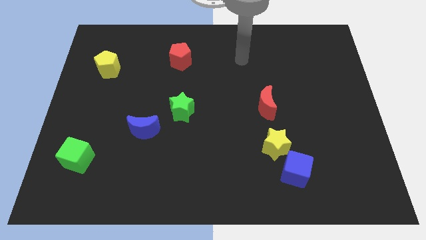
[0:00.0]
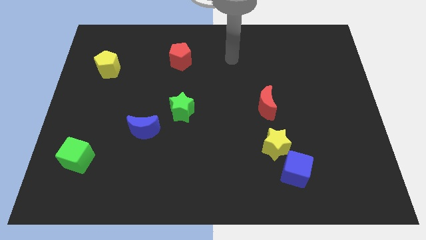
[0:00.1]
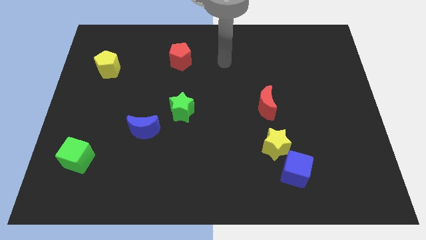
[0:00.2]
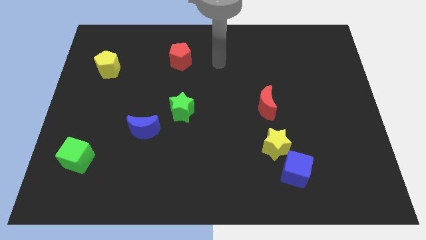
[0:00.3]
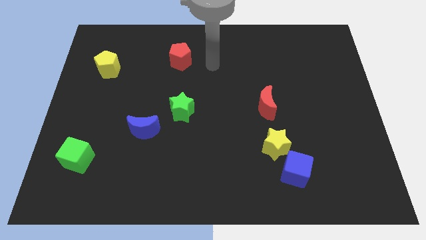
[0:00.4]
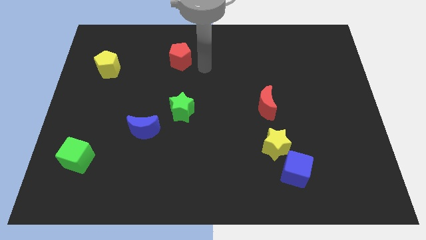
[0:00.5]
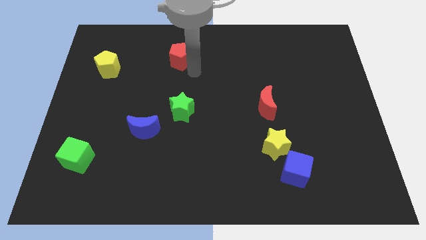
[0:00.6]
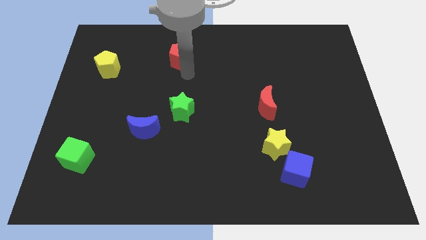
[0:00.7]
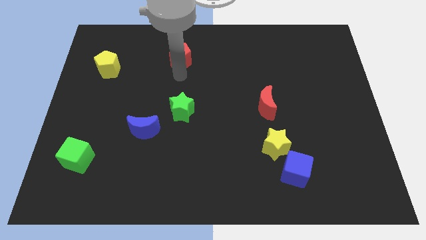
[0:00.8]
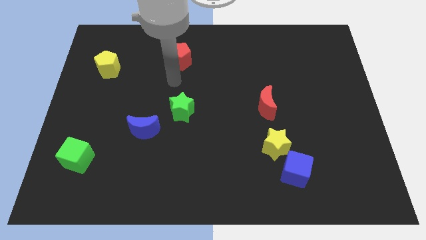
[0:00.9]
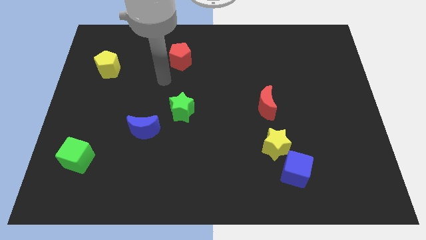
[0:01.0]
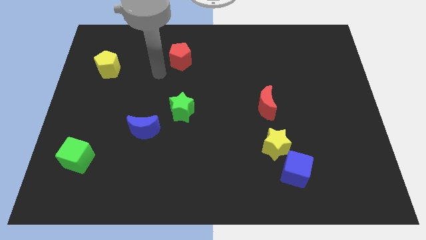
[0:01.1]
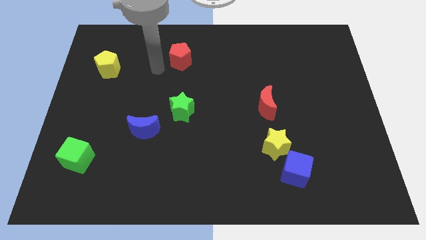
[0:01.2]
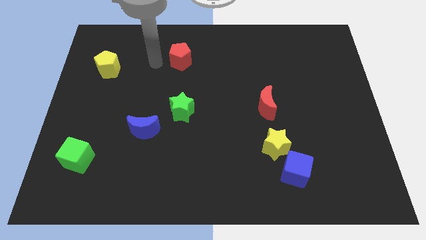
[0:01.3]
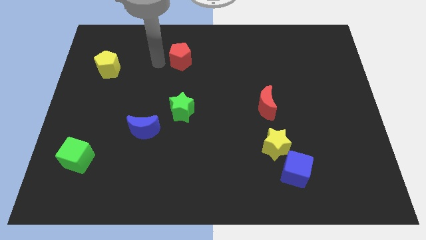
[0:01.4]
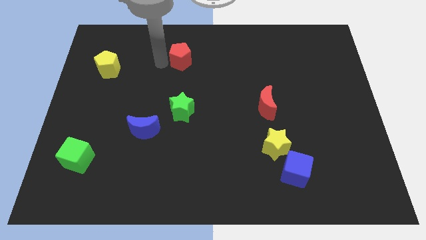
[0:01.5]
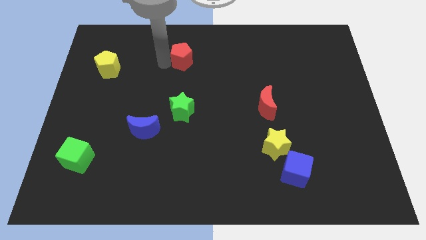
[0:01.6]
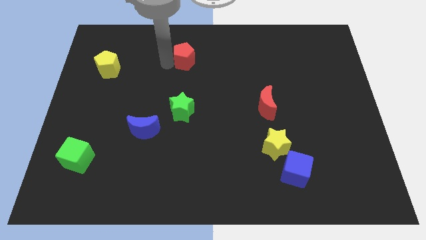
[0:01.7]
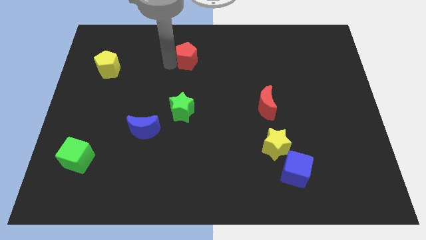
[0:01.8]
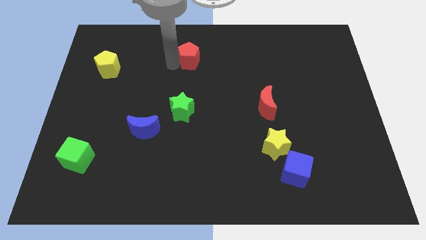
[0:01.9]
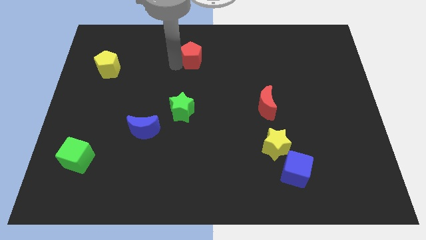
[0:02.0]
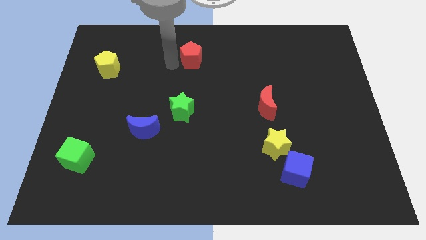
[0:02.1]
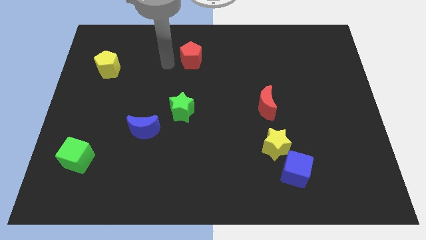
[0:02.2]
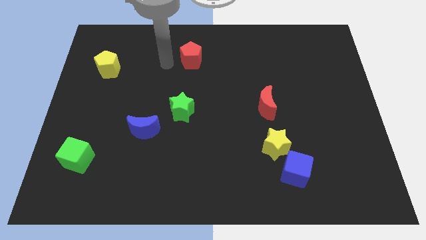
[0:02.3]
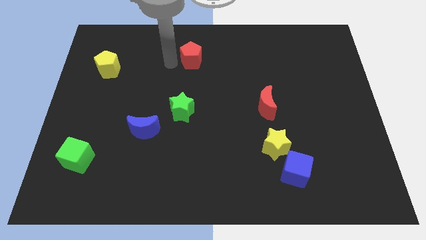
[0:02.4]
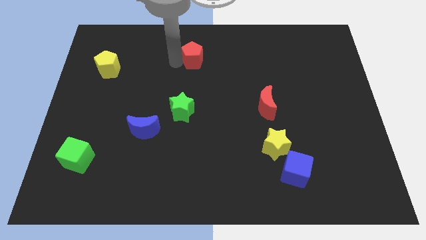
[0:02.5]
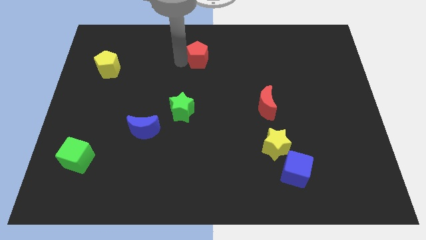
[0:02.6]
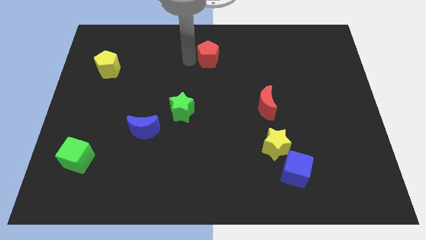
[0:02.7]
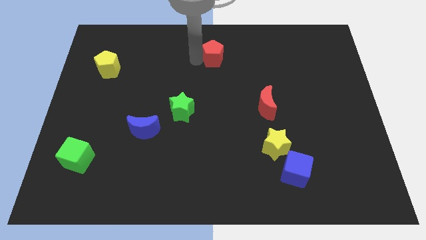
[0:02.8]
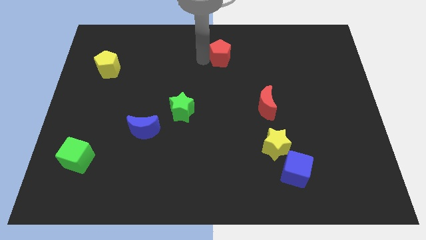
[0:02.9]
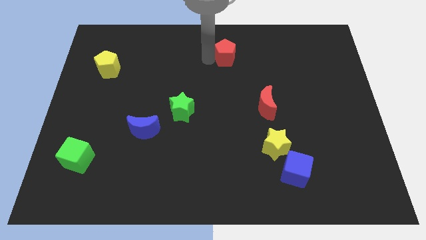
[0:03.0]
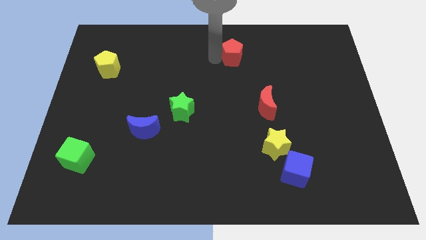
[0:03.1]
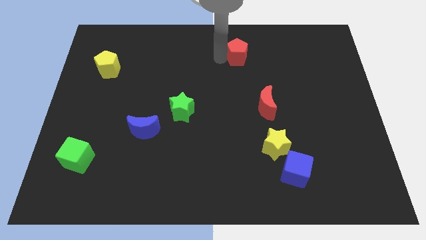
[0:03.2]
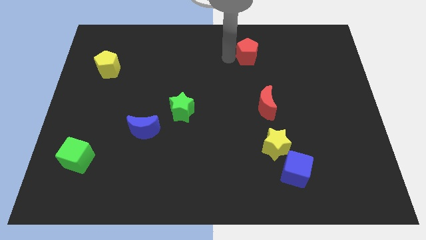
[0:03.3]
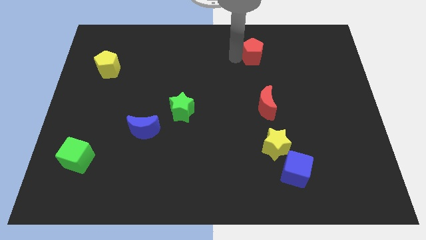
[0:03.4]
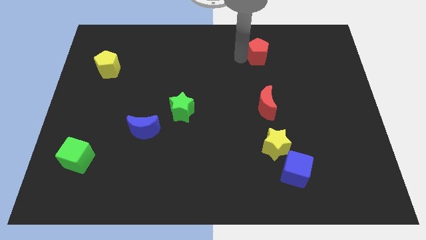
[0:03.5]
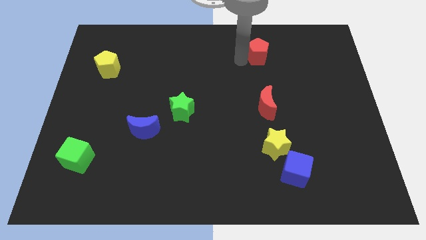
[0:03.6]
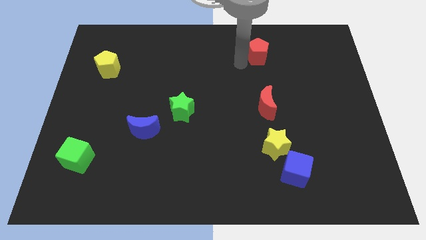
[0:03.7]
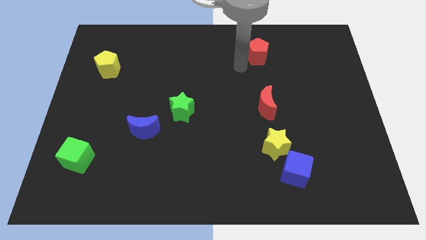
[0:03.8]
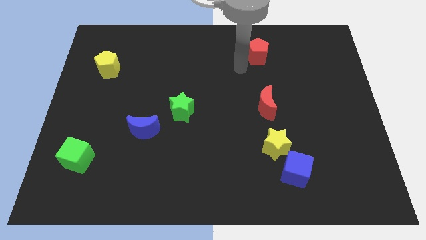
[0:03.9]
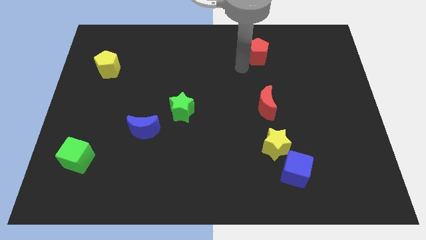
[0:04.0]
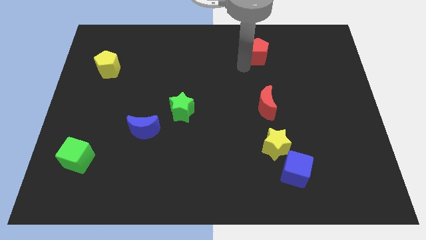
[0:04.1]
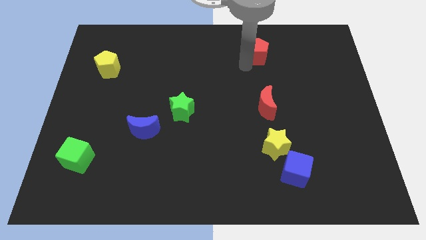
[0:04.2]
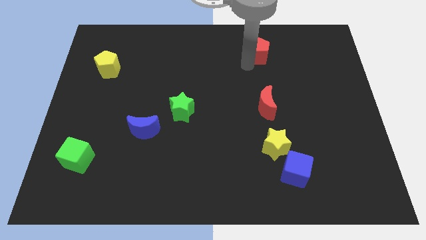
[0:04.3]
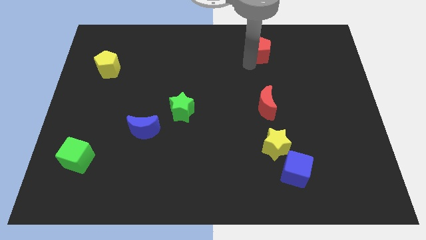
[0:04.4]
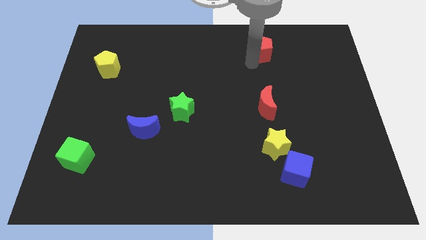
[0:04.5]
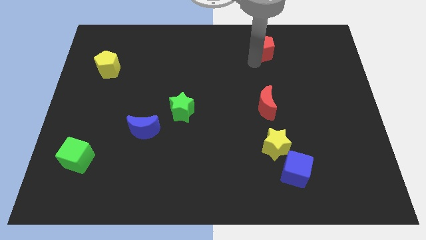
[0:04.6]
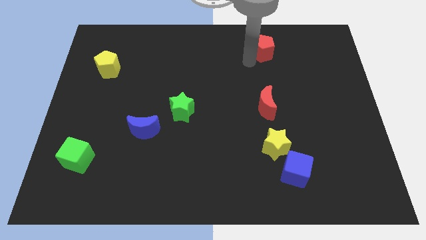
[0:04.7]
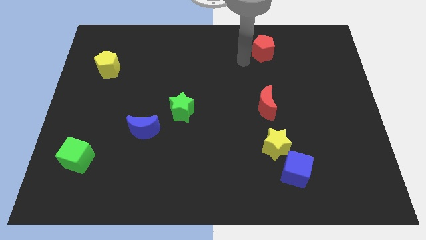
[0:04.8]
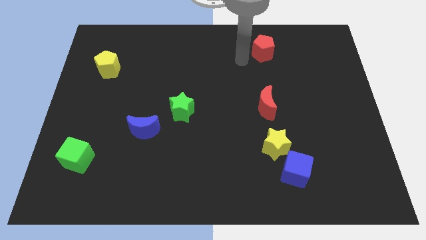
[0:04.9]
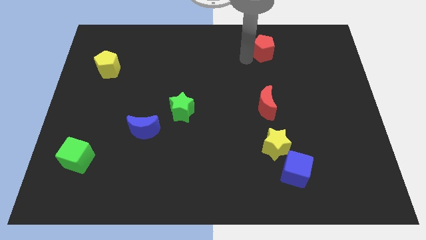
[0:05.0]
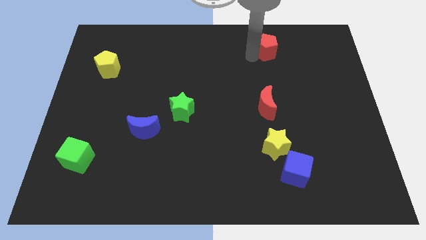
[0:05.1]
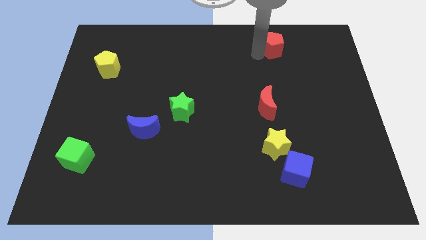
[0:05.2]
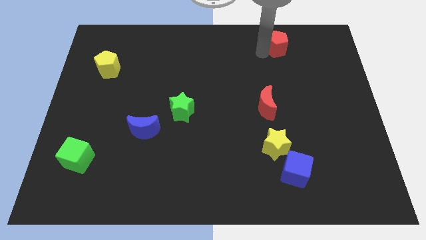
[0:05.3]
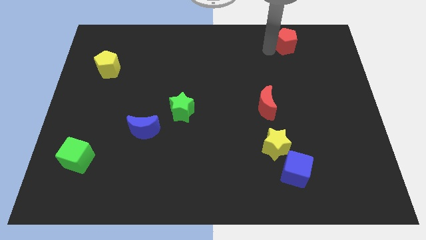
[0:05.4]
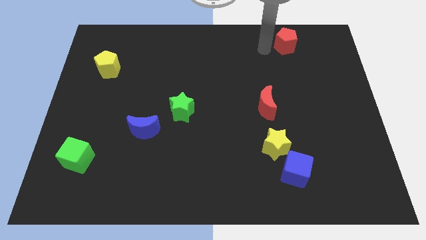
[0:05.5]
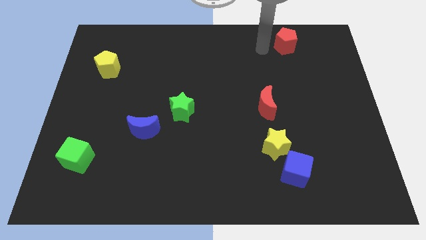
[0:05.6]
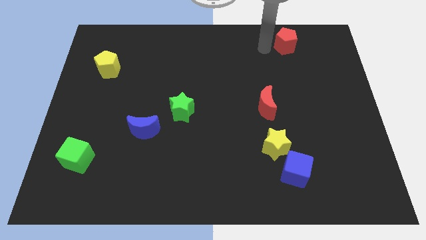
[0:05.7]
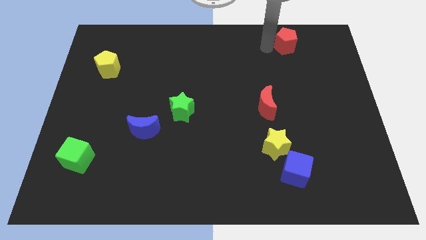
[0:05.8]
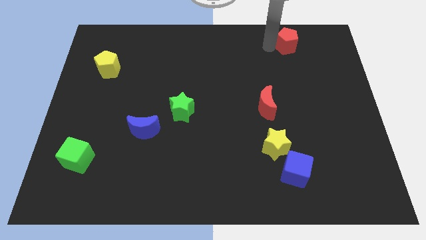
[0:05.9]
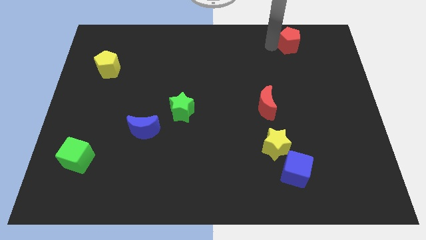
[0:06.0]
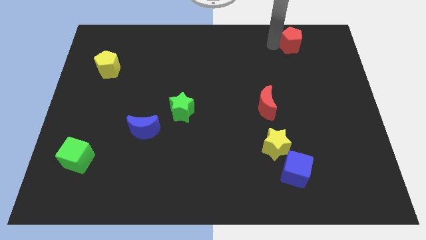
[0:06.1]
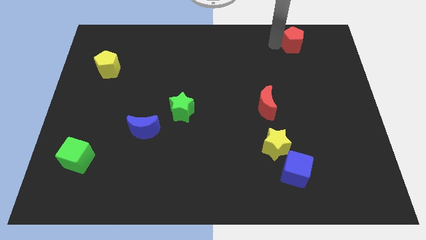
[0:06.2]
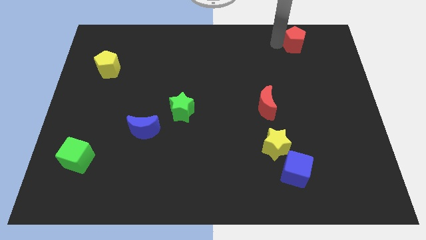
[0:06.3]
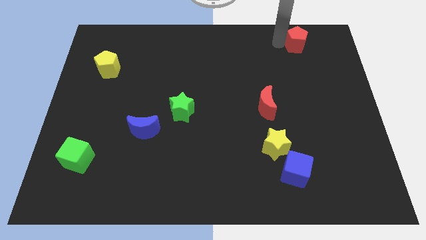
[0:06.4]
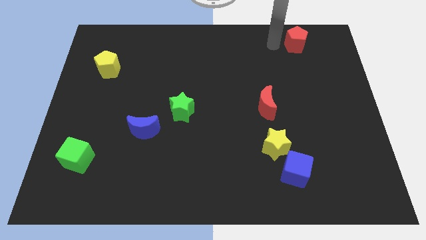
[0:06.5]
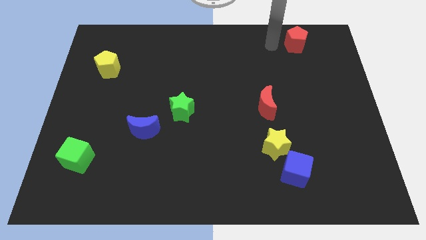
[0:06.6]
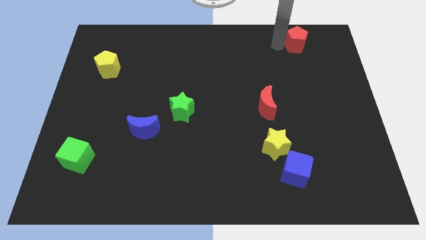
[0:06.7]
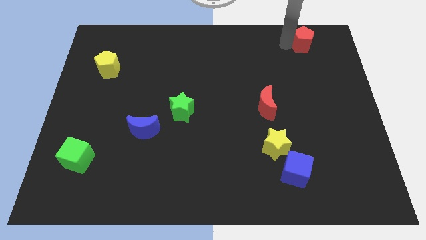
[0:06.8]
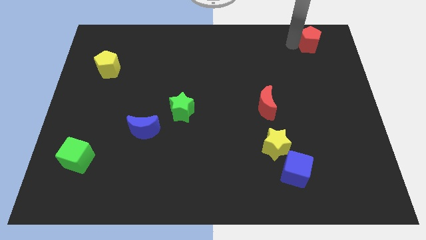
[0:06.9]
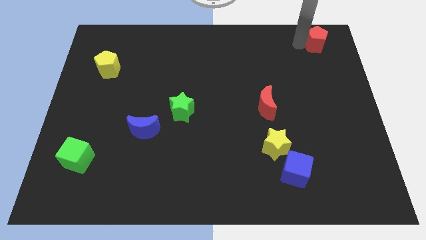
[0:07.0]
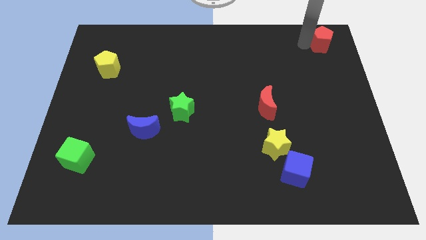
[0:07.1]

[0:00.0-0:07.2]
put the red pentagon to the top right corner
